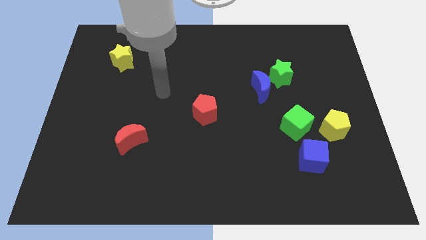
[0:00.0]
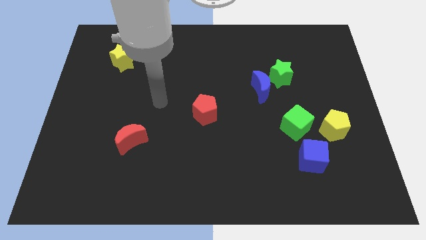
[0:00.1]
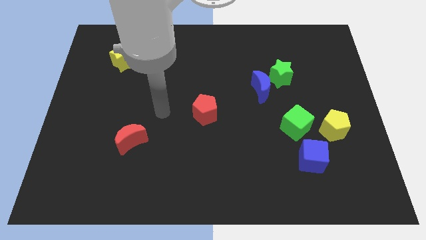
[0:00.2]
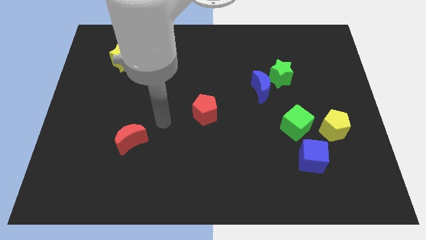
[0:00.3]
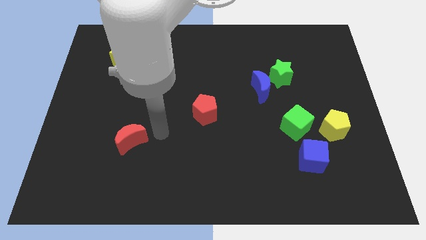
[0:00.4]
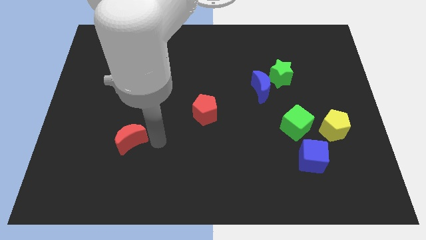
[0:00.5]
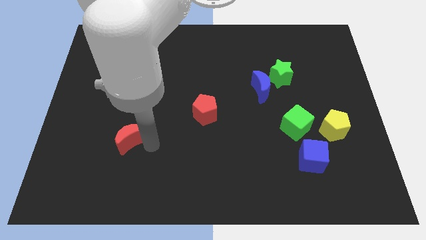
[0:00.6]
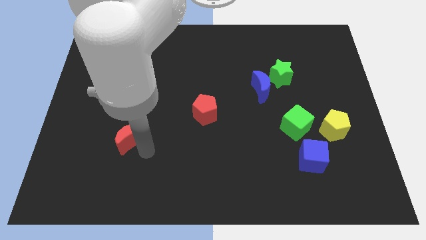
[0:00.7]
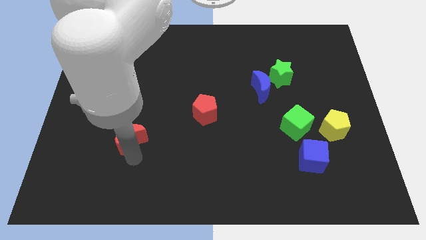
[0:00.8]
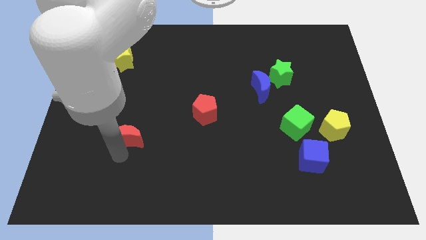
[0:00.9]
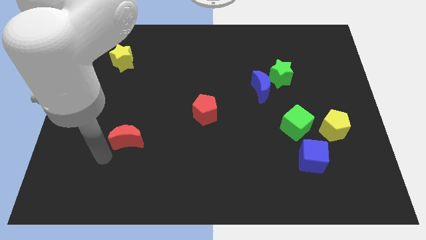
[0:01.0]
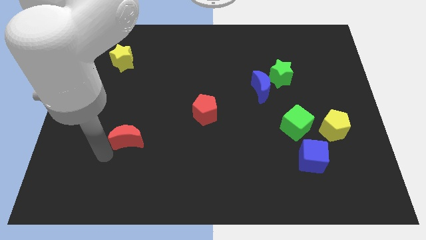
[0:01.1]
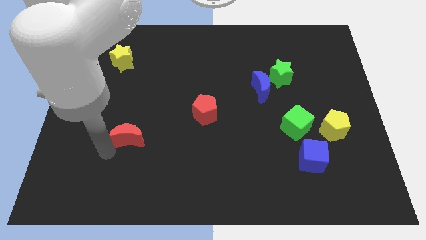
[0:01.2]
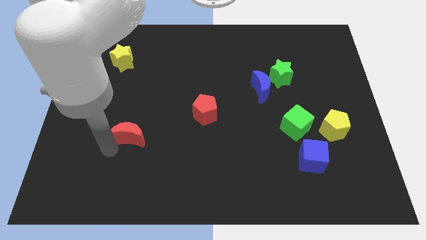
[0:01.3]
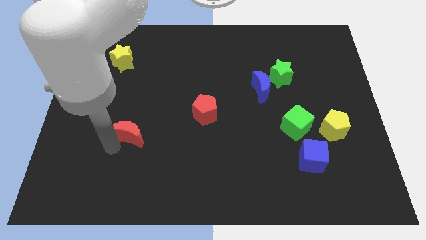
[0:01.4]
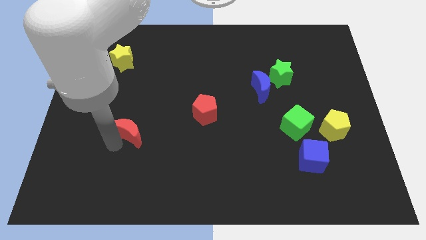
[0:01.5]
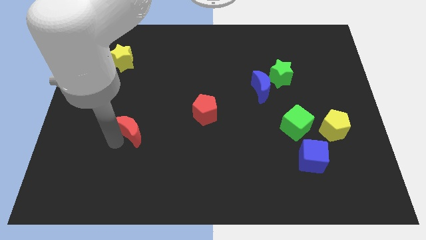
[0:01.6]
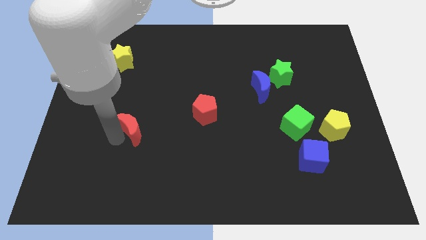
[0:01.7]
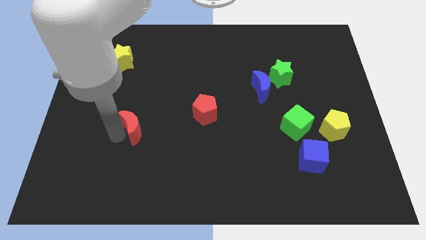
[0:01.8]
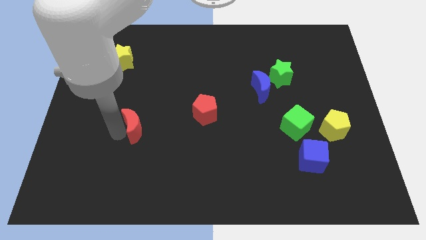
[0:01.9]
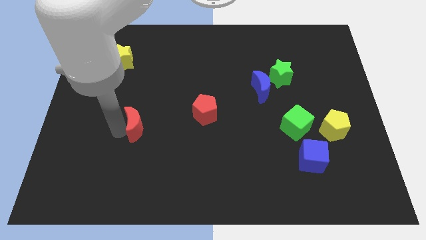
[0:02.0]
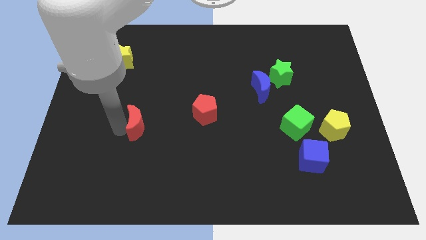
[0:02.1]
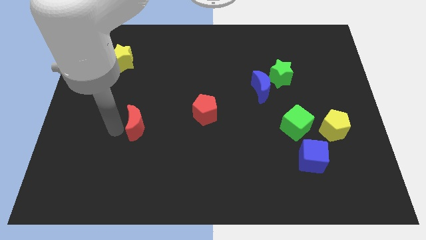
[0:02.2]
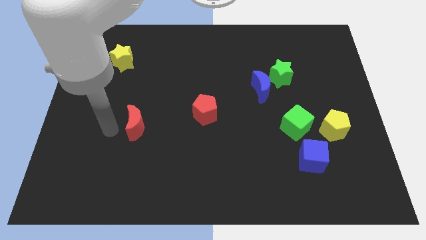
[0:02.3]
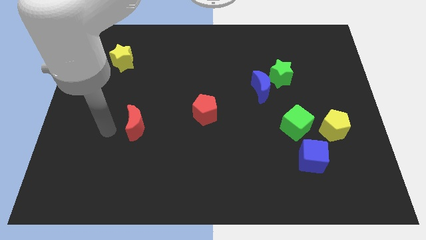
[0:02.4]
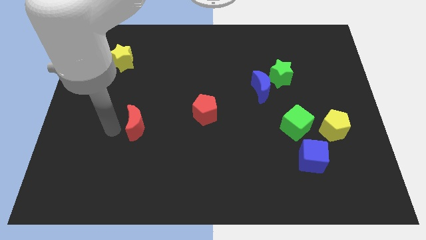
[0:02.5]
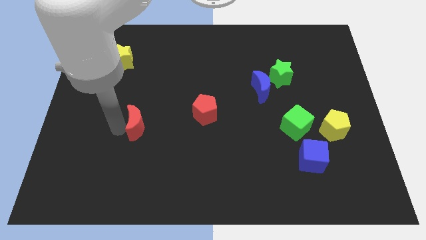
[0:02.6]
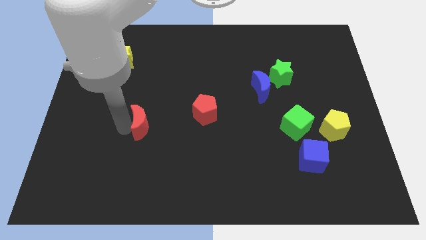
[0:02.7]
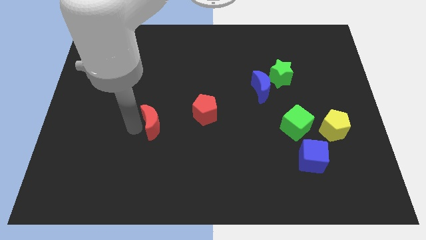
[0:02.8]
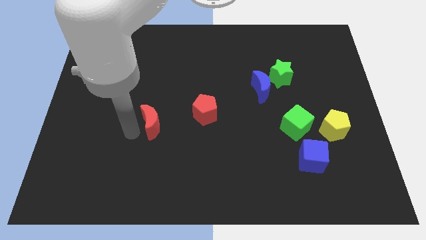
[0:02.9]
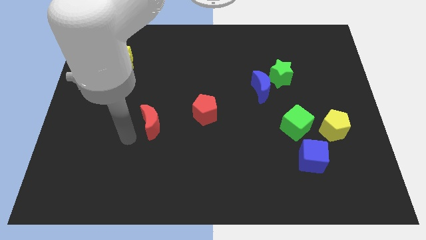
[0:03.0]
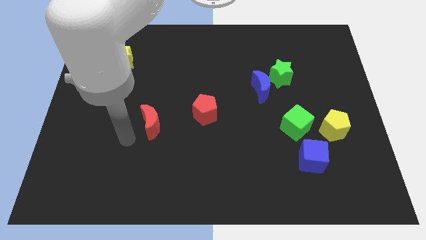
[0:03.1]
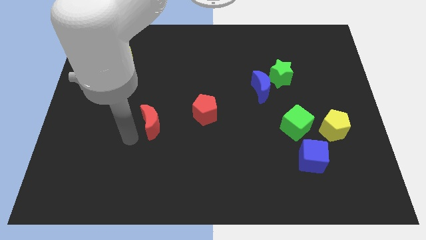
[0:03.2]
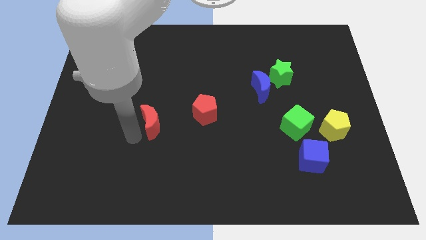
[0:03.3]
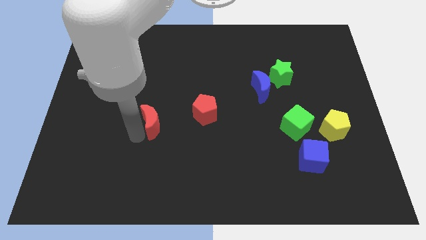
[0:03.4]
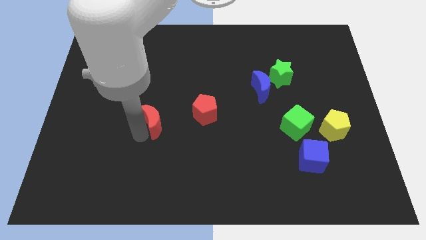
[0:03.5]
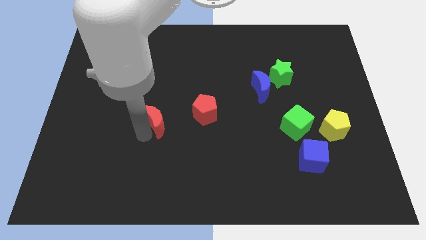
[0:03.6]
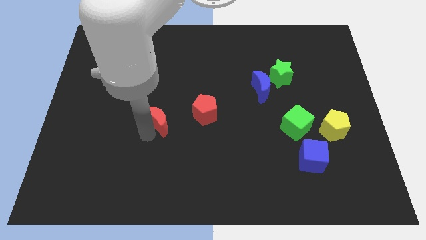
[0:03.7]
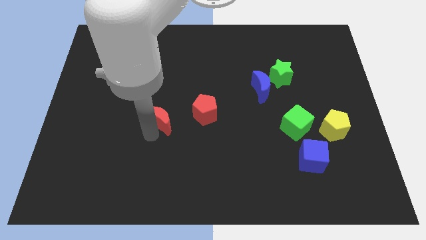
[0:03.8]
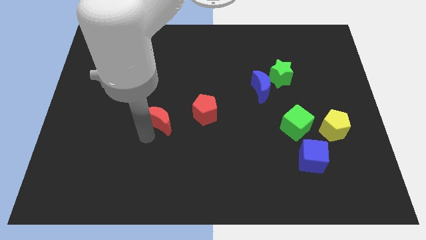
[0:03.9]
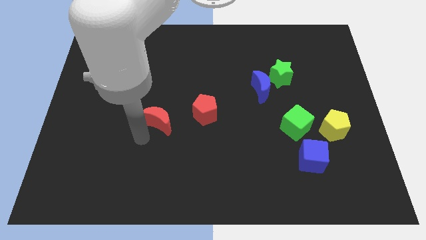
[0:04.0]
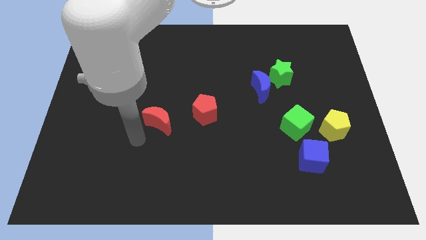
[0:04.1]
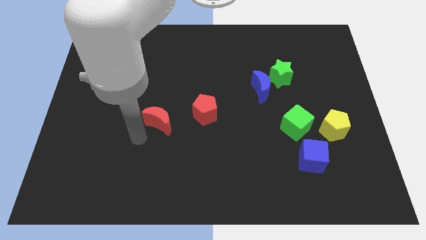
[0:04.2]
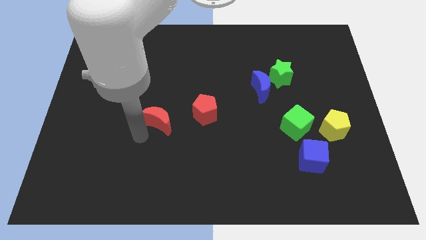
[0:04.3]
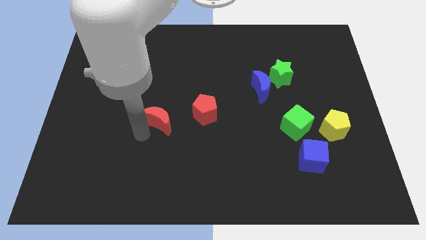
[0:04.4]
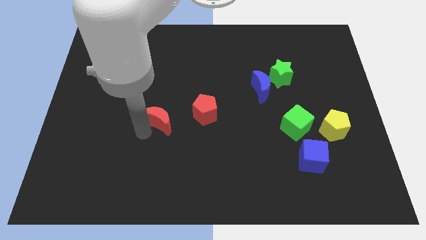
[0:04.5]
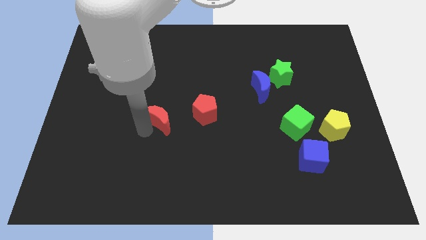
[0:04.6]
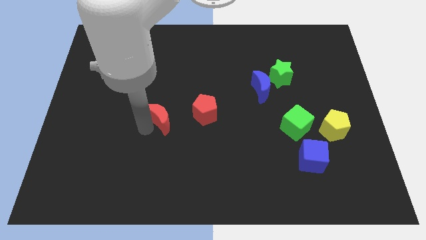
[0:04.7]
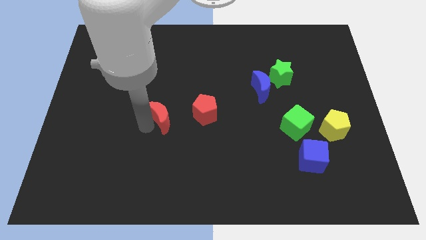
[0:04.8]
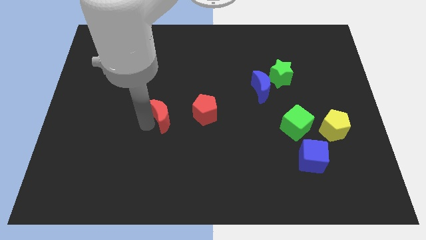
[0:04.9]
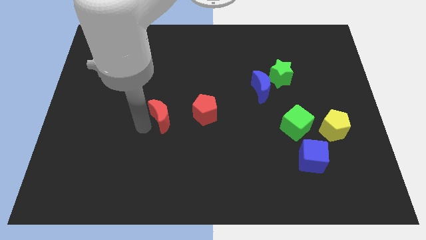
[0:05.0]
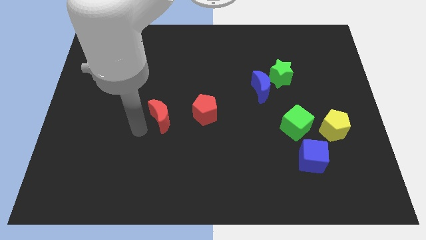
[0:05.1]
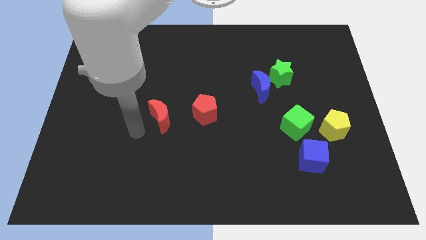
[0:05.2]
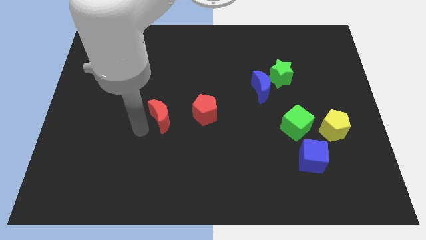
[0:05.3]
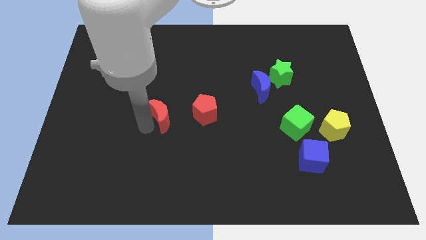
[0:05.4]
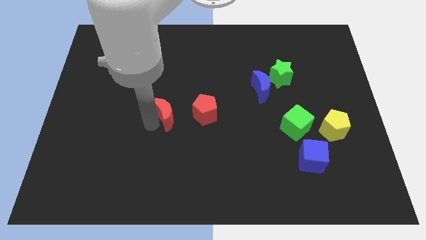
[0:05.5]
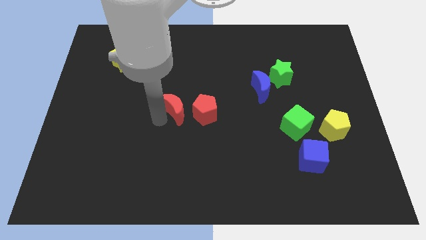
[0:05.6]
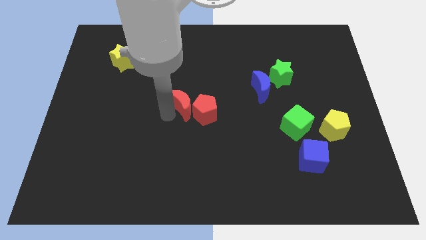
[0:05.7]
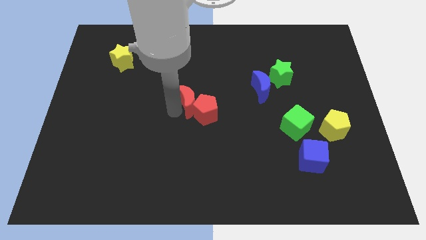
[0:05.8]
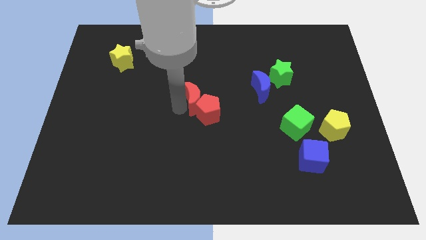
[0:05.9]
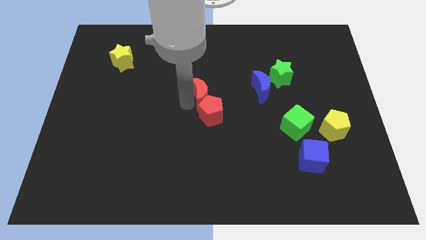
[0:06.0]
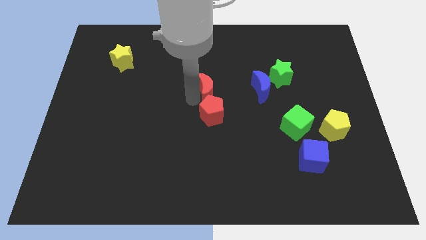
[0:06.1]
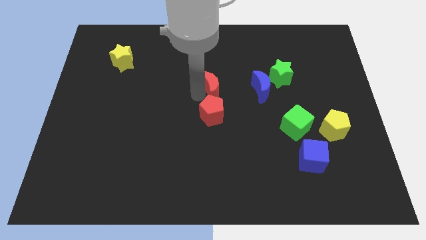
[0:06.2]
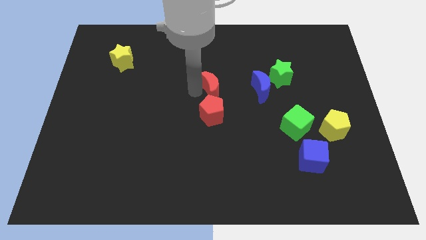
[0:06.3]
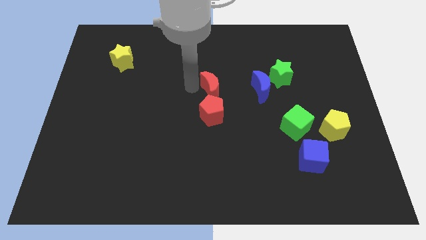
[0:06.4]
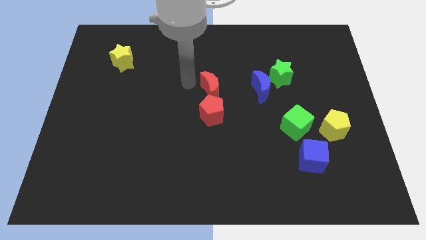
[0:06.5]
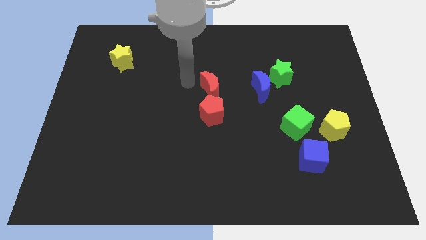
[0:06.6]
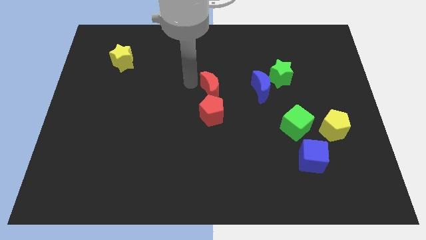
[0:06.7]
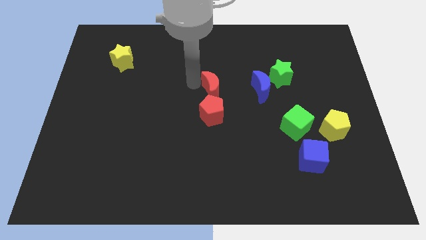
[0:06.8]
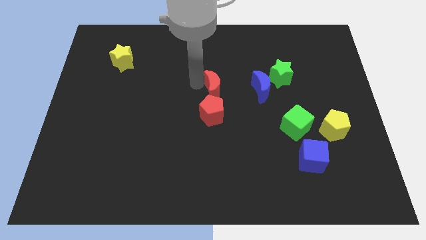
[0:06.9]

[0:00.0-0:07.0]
move the red moon to the top right side of the red pentagon
